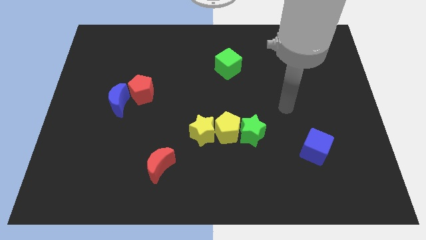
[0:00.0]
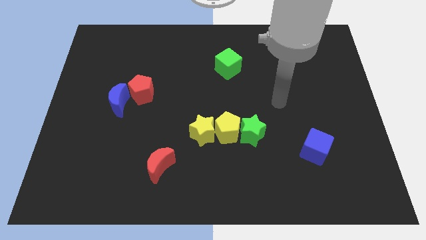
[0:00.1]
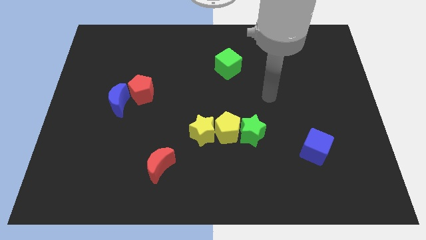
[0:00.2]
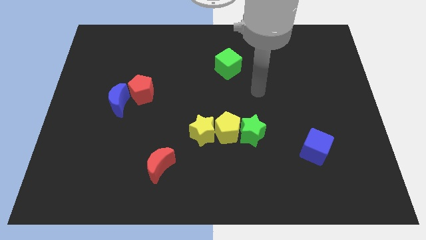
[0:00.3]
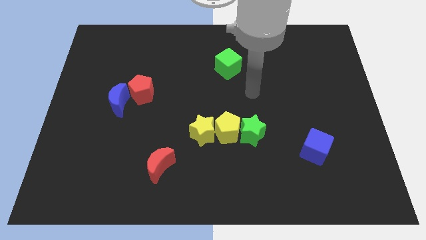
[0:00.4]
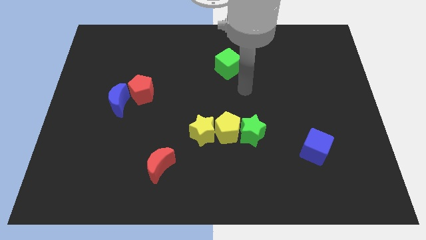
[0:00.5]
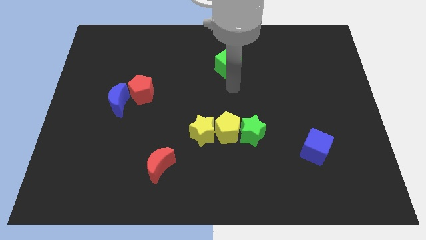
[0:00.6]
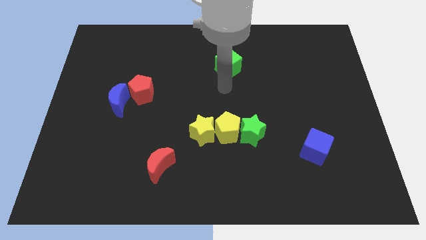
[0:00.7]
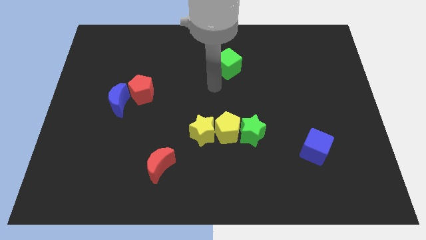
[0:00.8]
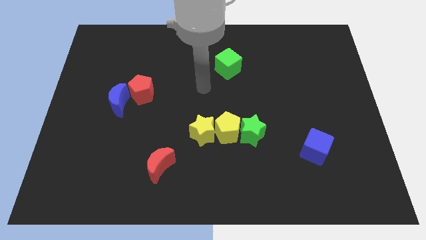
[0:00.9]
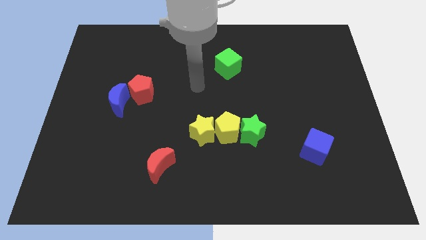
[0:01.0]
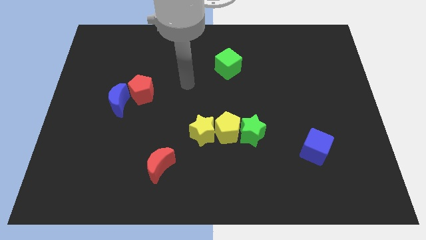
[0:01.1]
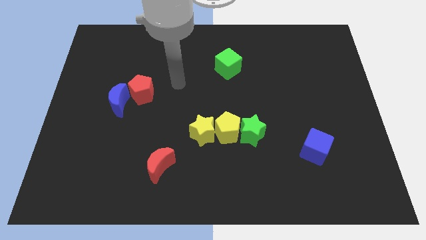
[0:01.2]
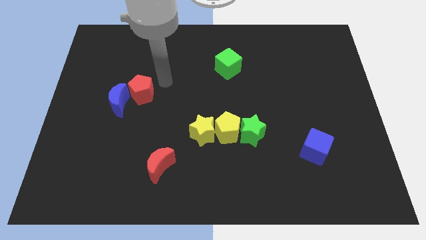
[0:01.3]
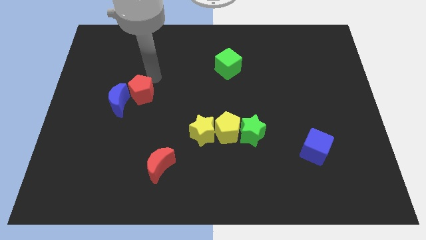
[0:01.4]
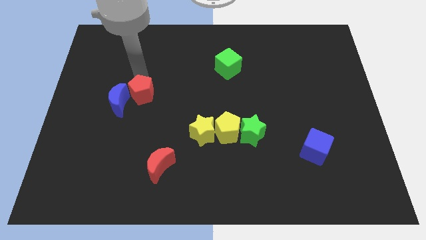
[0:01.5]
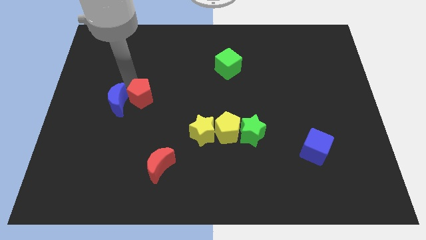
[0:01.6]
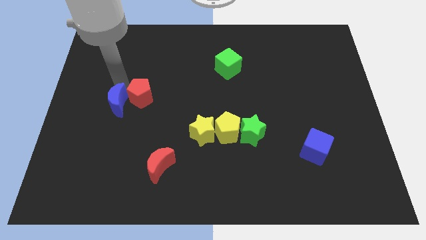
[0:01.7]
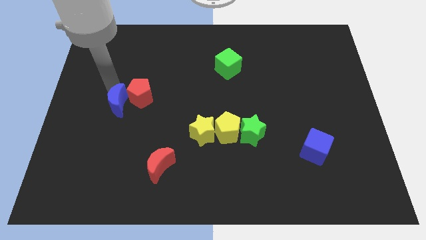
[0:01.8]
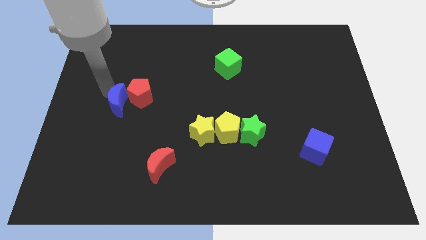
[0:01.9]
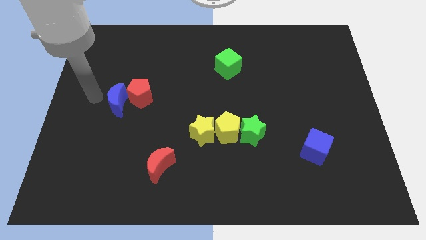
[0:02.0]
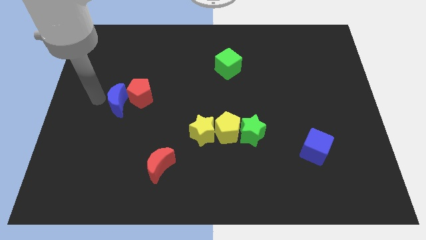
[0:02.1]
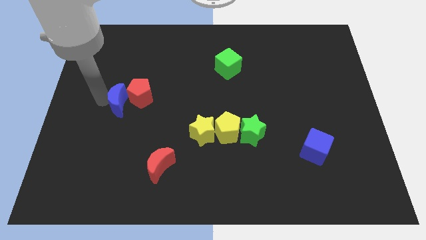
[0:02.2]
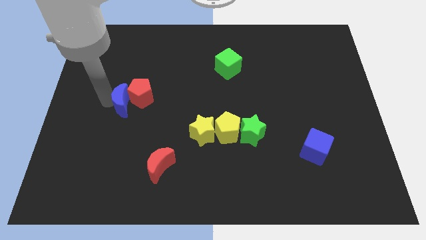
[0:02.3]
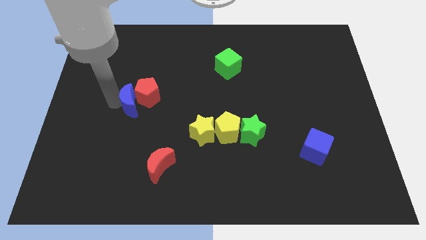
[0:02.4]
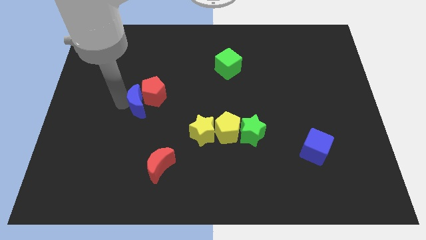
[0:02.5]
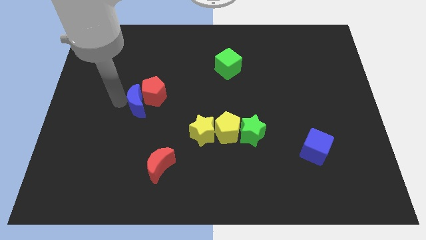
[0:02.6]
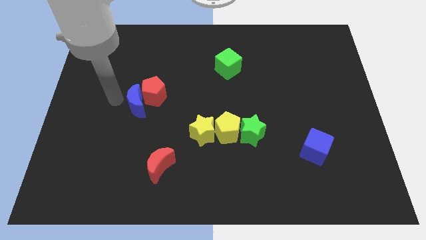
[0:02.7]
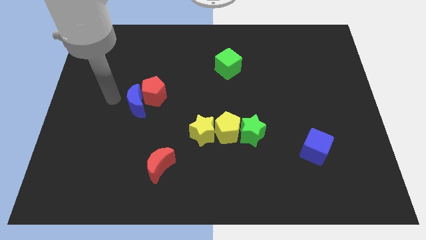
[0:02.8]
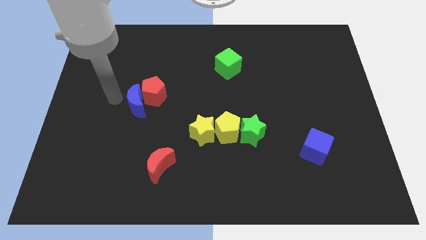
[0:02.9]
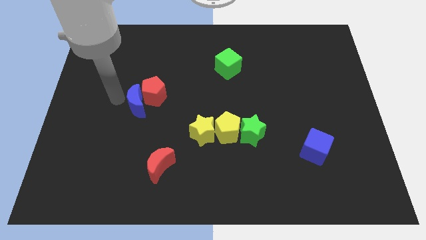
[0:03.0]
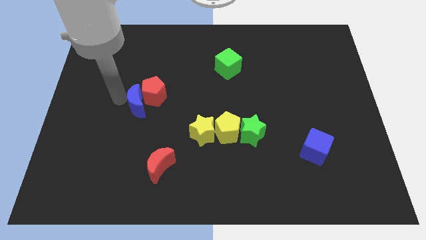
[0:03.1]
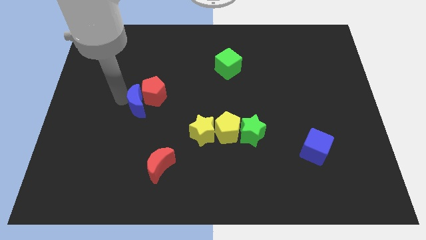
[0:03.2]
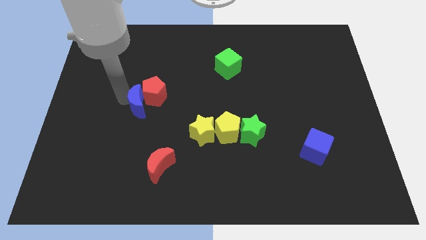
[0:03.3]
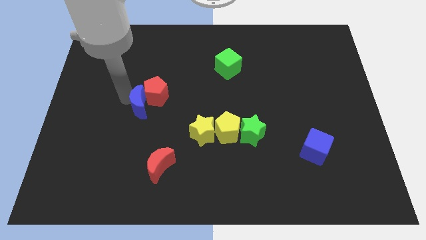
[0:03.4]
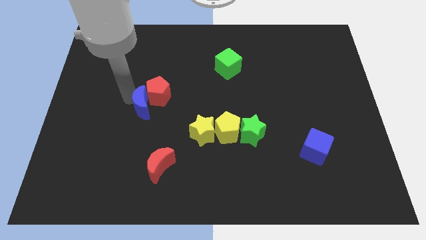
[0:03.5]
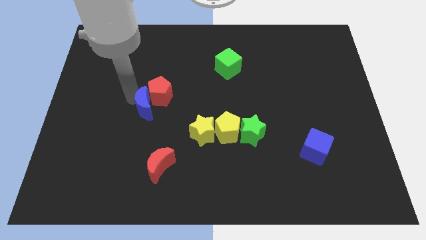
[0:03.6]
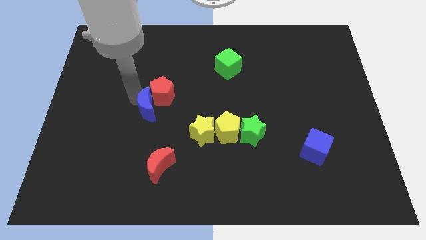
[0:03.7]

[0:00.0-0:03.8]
slightly slide the blue moon right

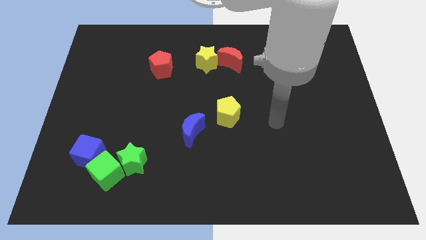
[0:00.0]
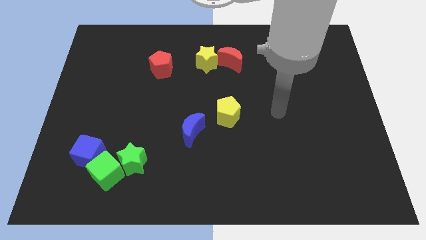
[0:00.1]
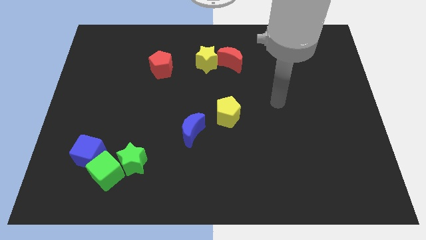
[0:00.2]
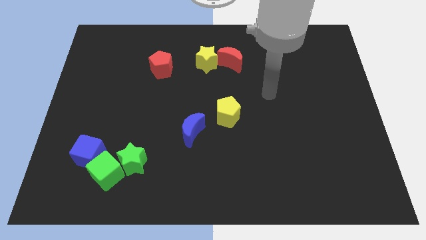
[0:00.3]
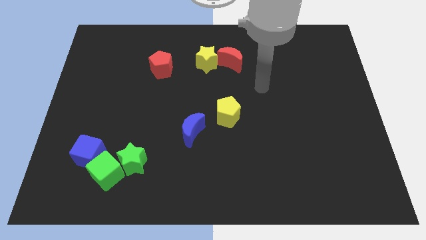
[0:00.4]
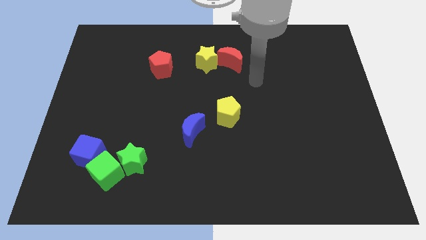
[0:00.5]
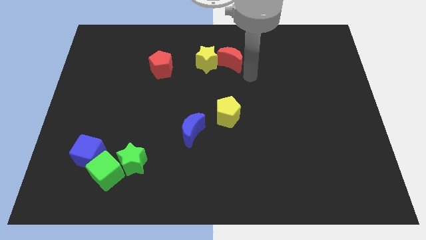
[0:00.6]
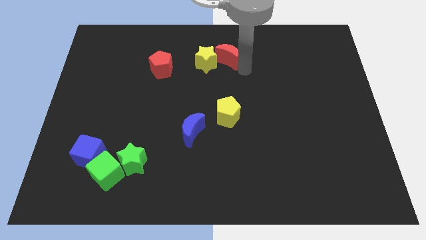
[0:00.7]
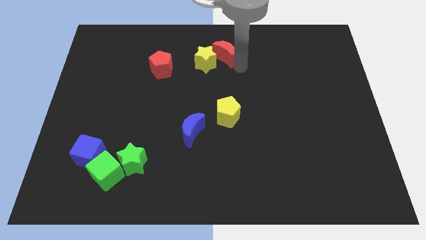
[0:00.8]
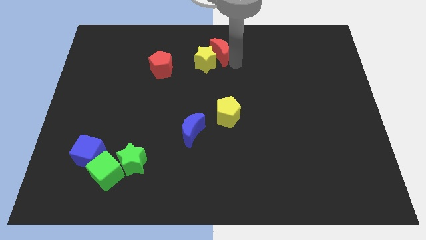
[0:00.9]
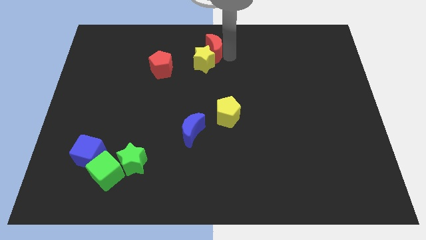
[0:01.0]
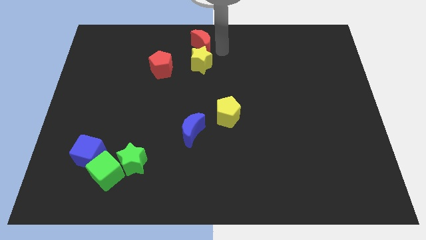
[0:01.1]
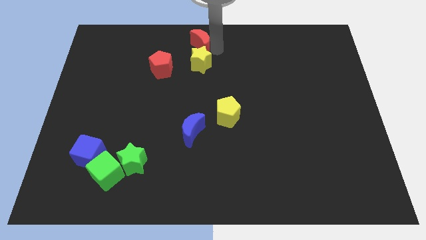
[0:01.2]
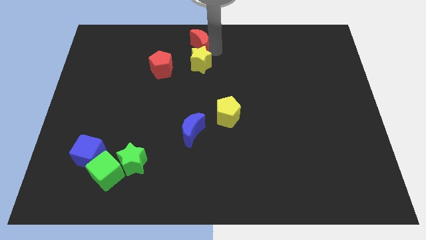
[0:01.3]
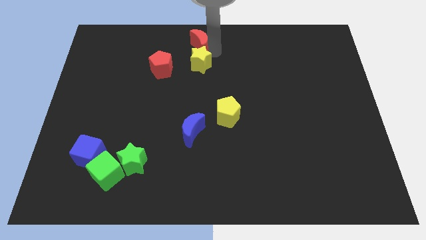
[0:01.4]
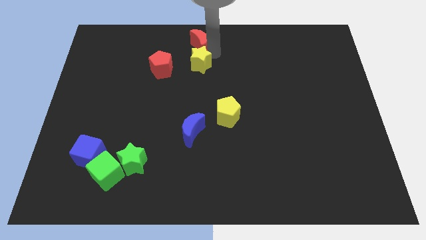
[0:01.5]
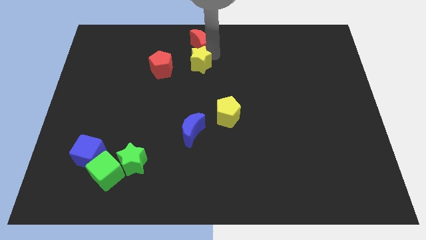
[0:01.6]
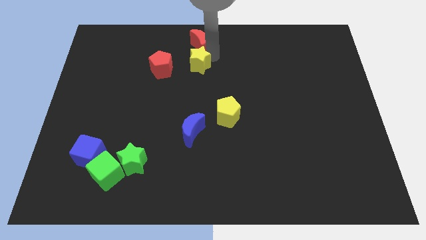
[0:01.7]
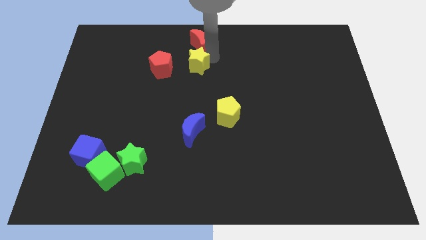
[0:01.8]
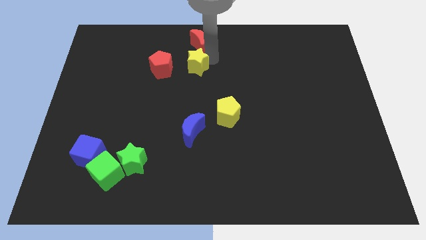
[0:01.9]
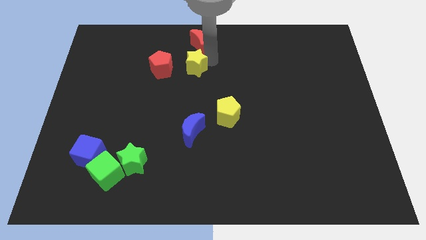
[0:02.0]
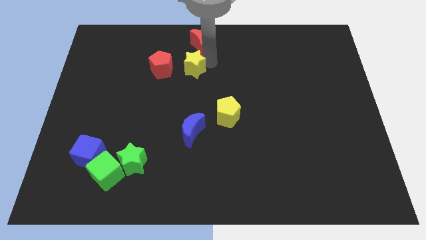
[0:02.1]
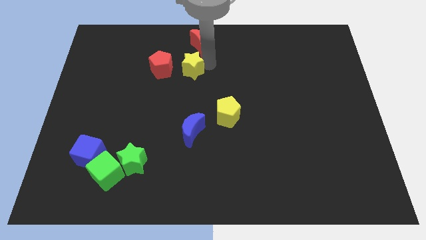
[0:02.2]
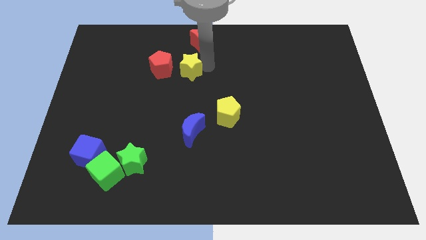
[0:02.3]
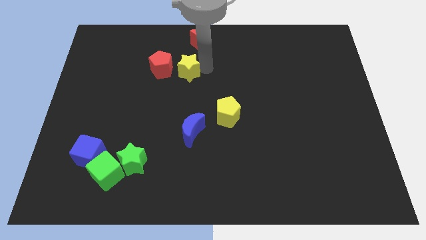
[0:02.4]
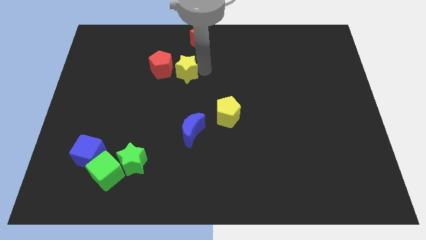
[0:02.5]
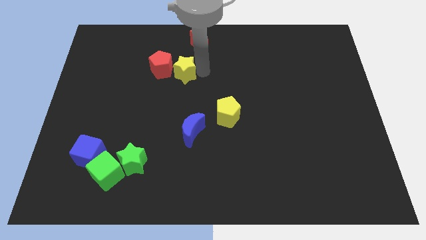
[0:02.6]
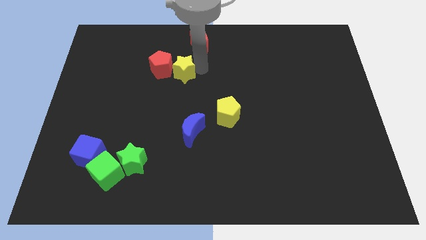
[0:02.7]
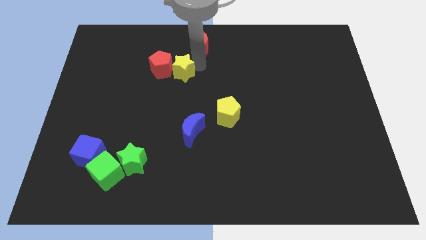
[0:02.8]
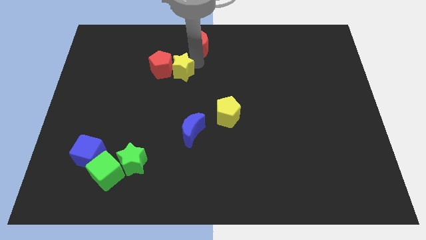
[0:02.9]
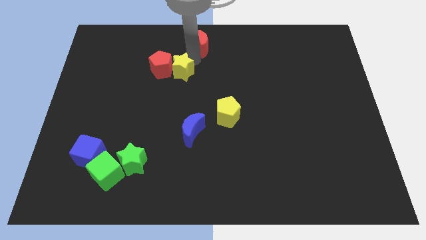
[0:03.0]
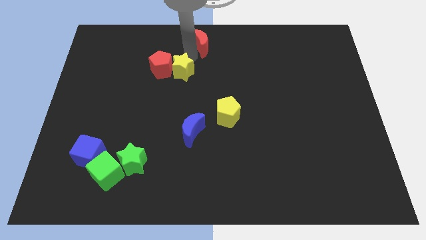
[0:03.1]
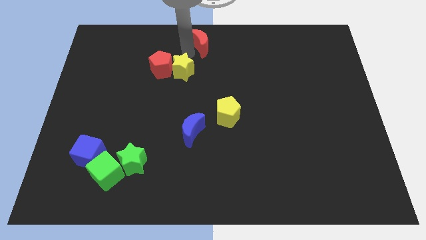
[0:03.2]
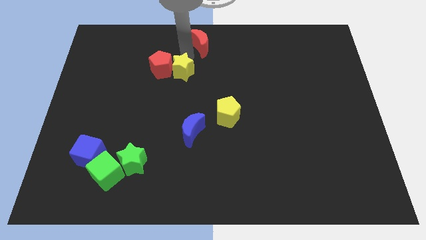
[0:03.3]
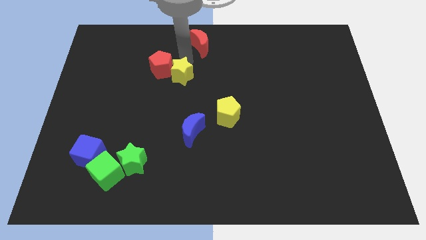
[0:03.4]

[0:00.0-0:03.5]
slide the yellow star somewhat down and left diagonally

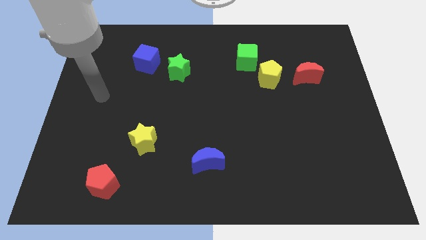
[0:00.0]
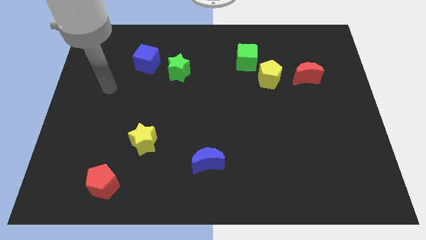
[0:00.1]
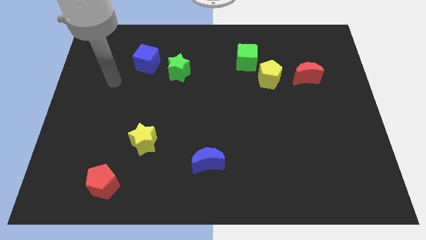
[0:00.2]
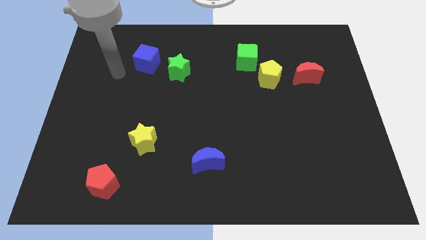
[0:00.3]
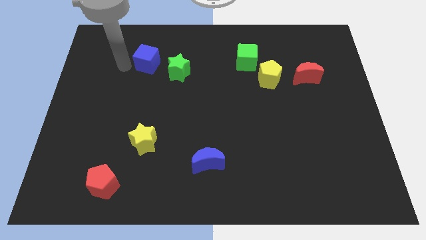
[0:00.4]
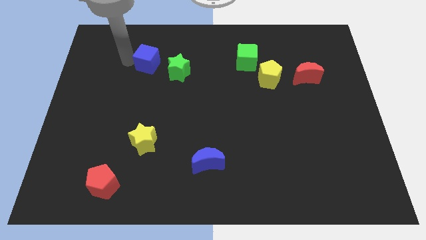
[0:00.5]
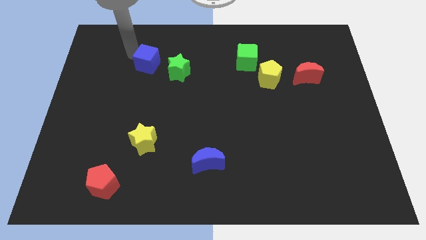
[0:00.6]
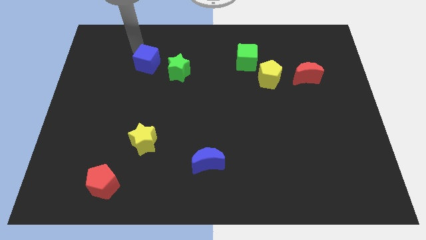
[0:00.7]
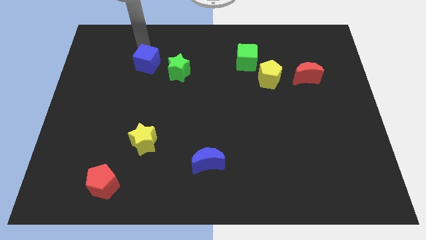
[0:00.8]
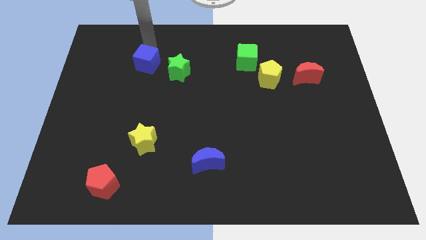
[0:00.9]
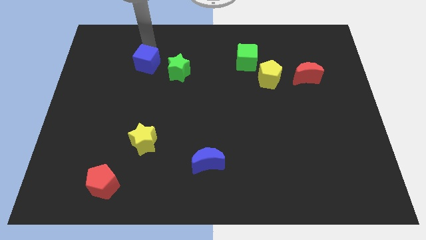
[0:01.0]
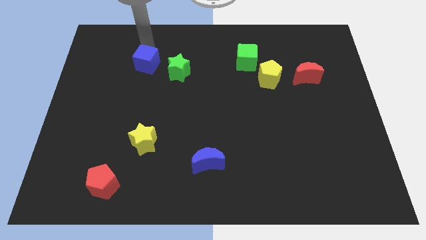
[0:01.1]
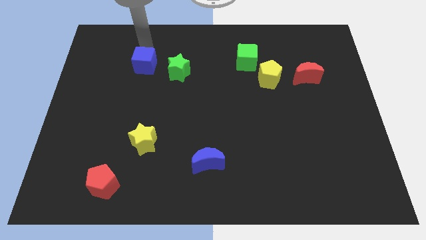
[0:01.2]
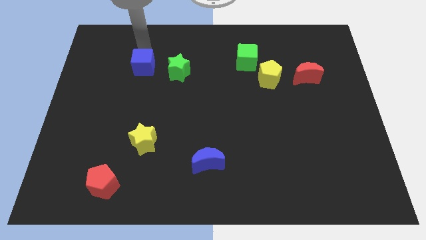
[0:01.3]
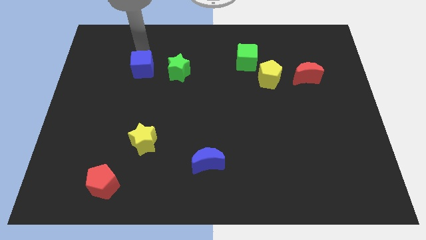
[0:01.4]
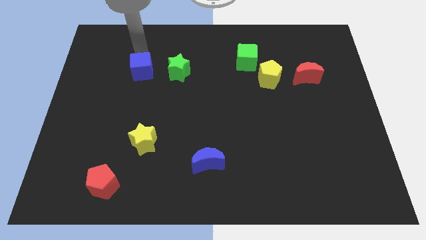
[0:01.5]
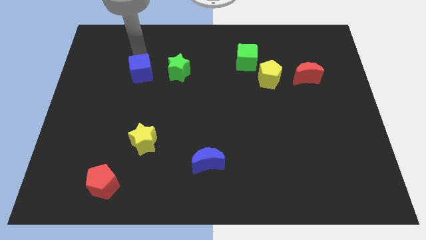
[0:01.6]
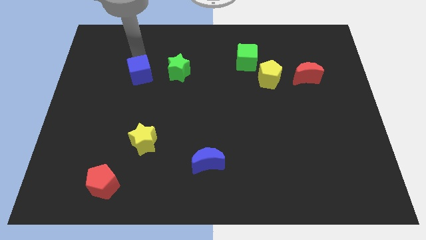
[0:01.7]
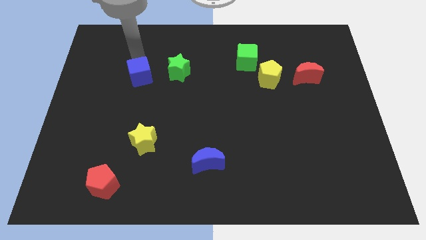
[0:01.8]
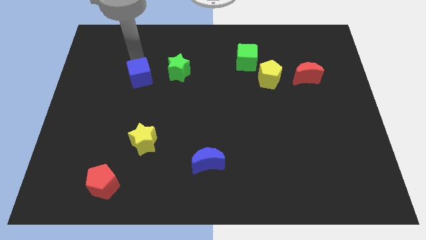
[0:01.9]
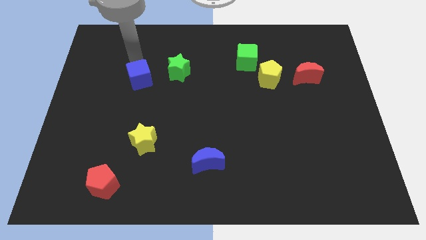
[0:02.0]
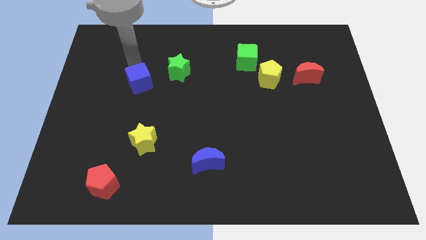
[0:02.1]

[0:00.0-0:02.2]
move the blue cube a little bit down
